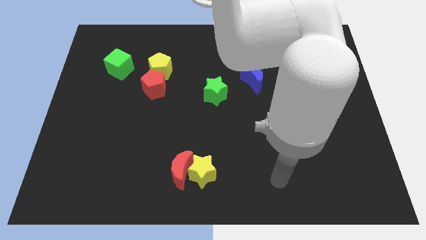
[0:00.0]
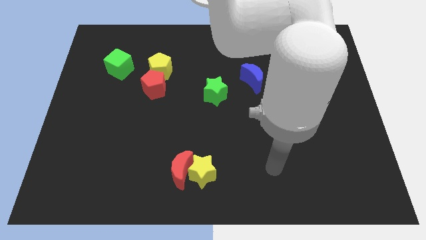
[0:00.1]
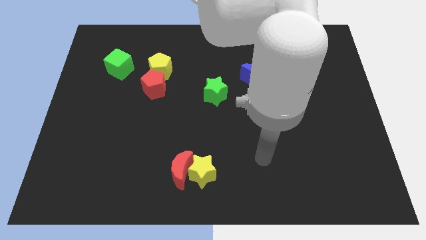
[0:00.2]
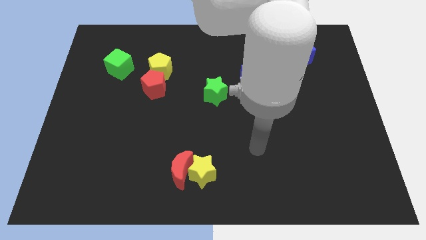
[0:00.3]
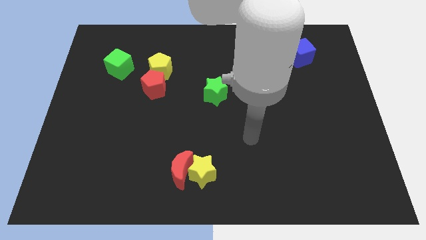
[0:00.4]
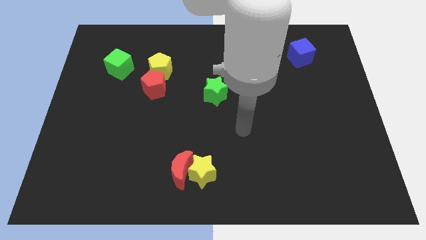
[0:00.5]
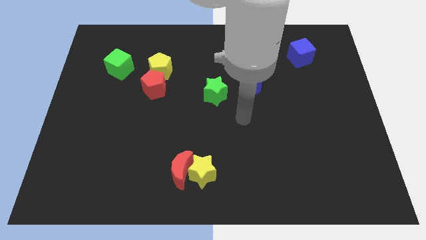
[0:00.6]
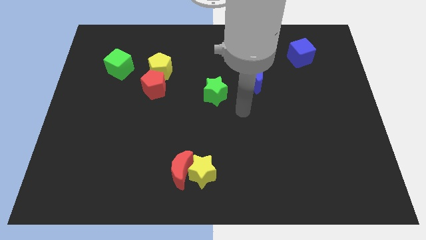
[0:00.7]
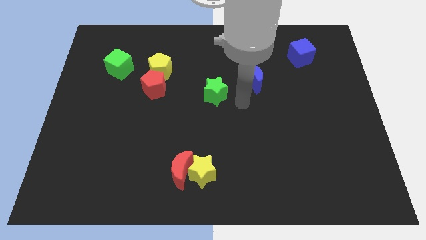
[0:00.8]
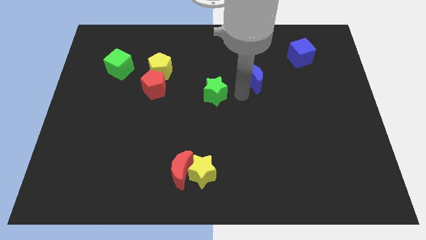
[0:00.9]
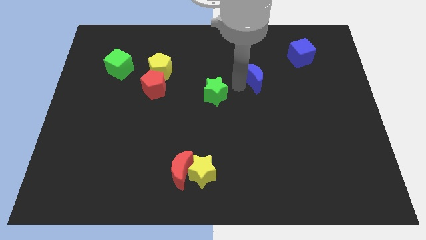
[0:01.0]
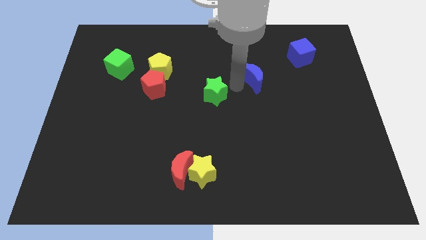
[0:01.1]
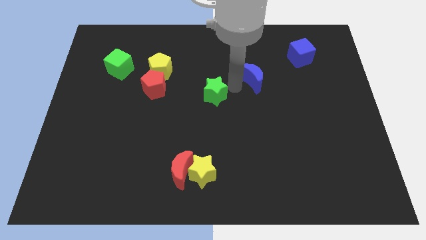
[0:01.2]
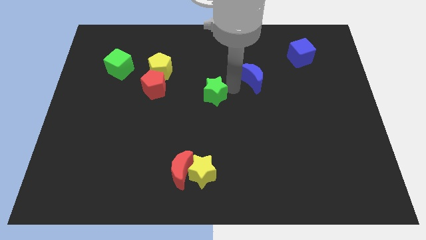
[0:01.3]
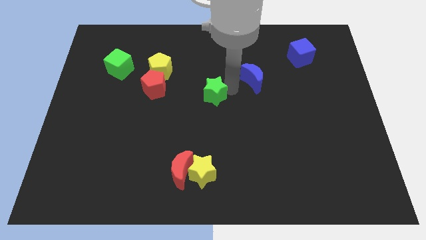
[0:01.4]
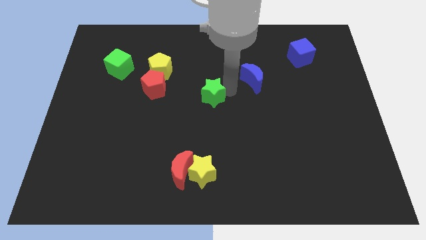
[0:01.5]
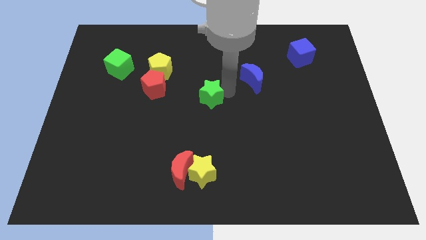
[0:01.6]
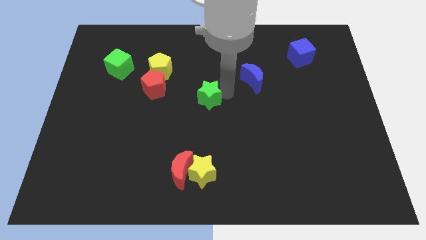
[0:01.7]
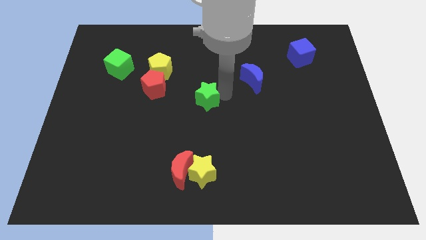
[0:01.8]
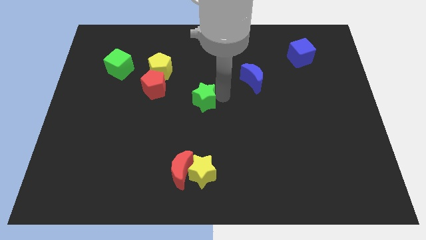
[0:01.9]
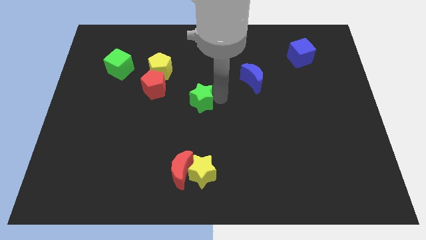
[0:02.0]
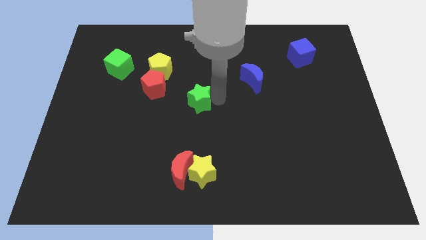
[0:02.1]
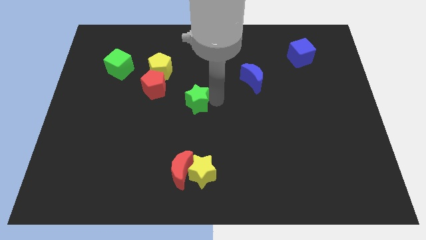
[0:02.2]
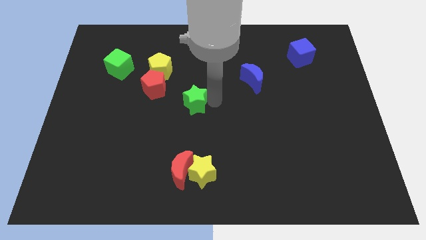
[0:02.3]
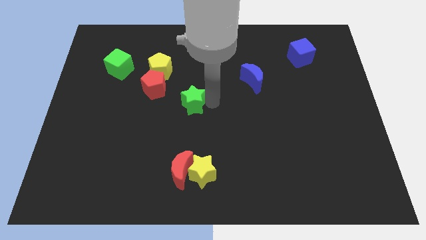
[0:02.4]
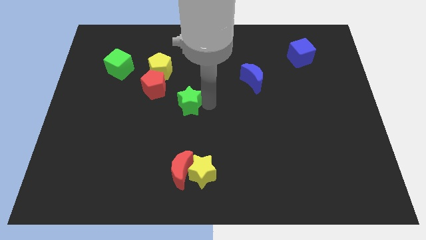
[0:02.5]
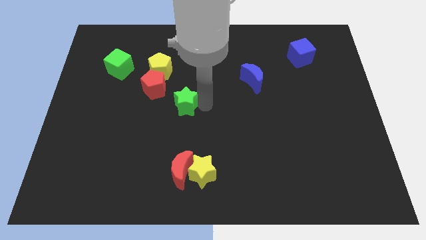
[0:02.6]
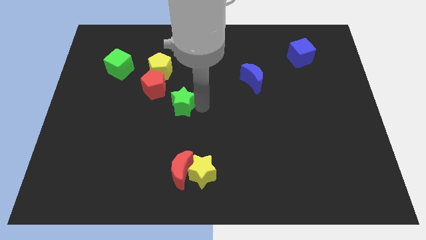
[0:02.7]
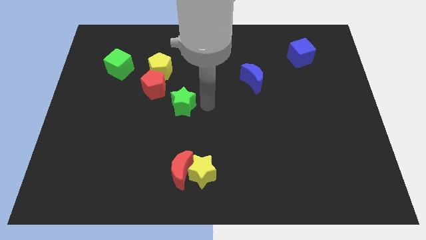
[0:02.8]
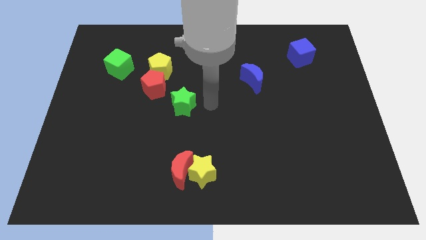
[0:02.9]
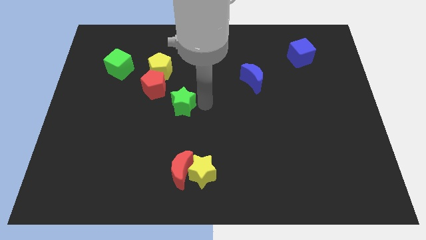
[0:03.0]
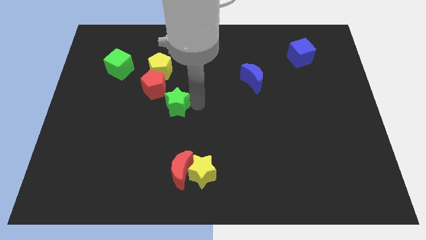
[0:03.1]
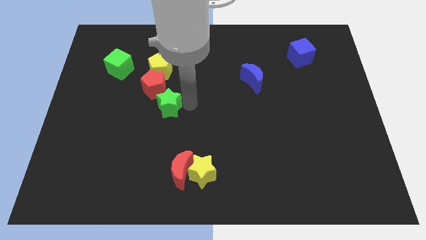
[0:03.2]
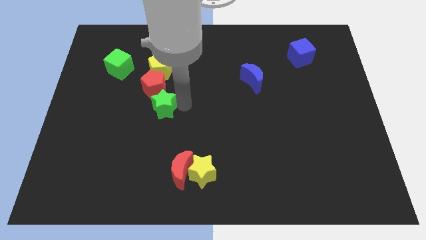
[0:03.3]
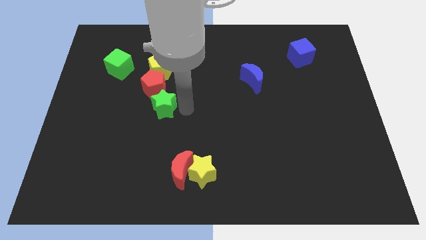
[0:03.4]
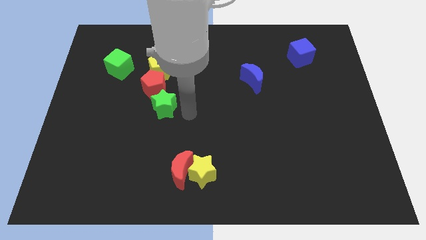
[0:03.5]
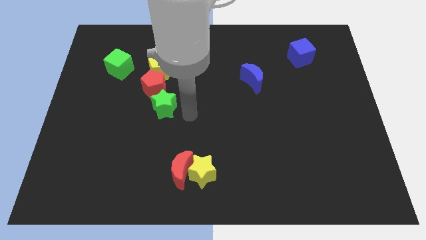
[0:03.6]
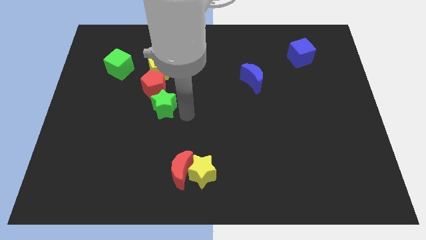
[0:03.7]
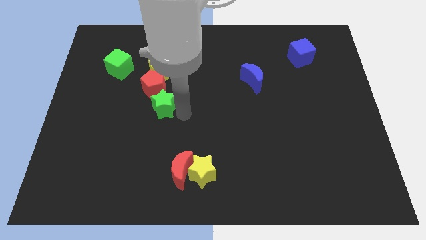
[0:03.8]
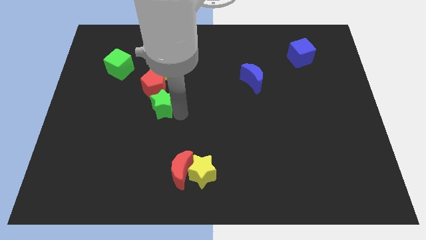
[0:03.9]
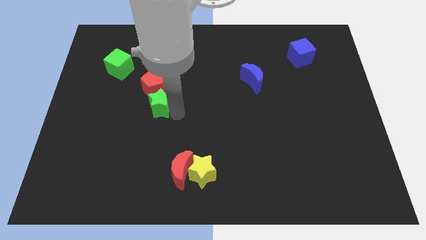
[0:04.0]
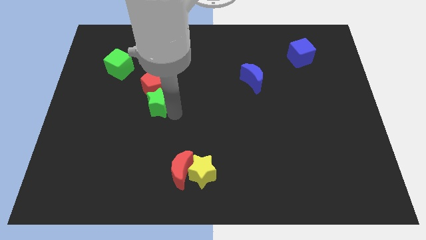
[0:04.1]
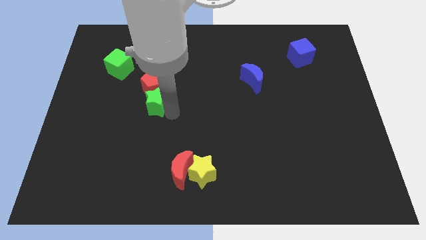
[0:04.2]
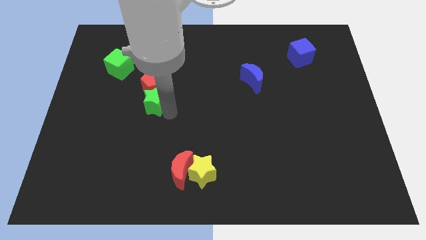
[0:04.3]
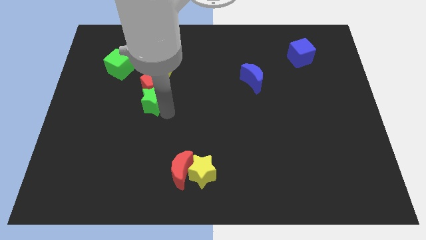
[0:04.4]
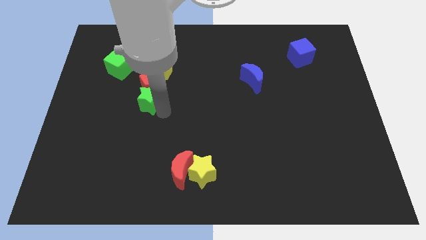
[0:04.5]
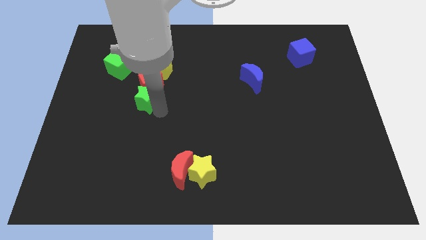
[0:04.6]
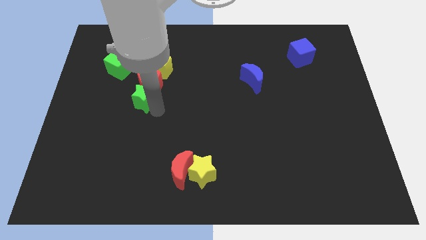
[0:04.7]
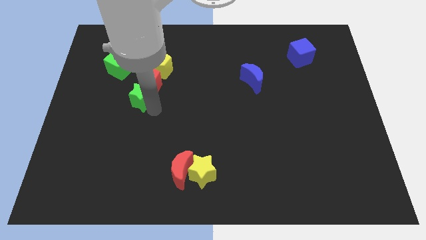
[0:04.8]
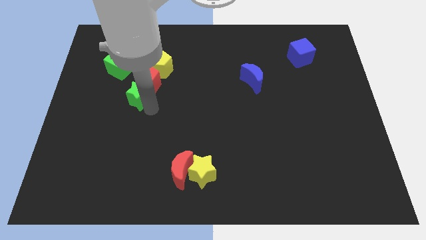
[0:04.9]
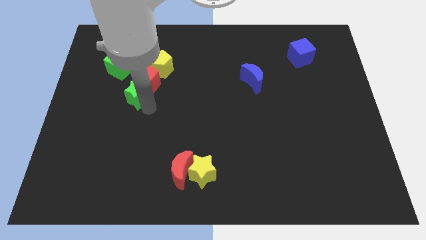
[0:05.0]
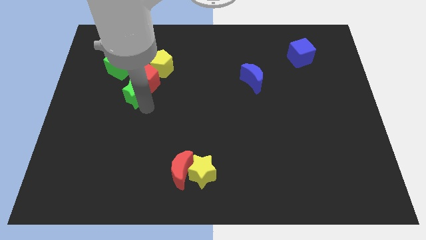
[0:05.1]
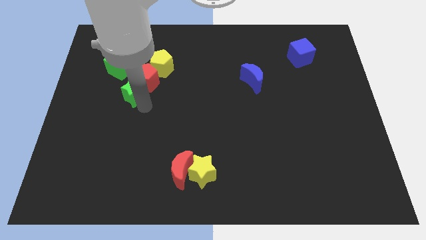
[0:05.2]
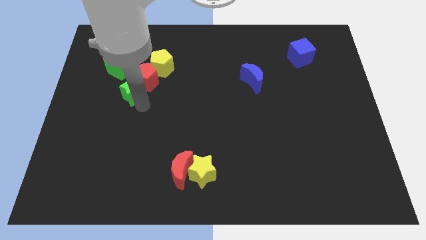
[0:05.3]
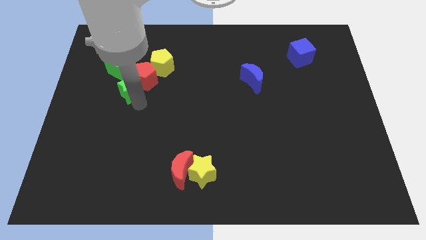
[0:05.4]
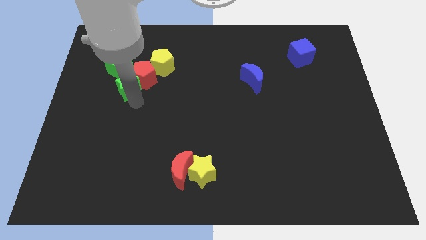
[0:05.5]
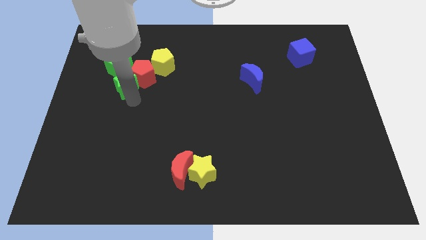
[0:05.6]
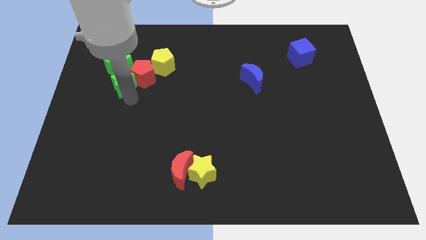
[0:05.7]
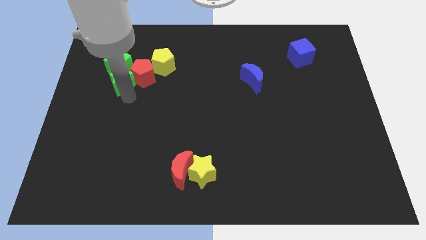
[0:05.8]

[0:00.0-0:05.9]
push the green star to the green cube

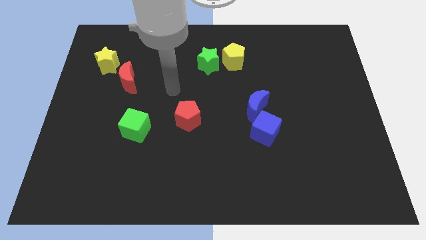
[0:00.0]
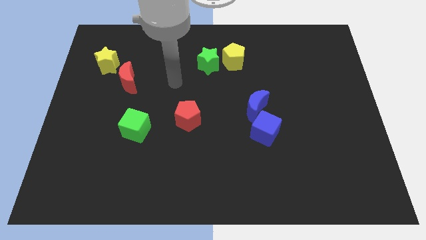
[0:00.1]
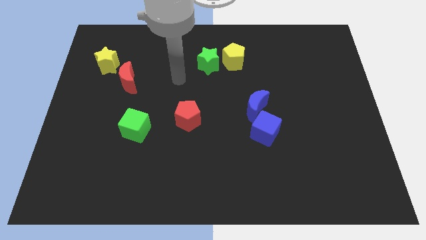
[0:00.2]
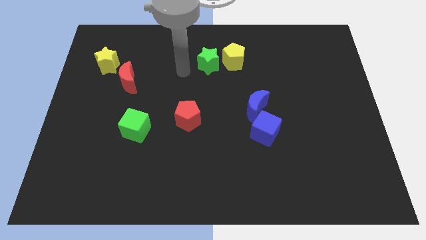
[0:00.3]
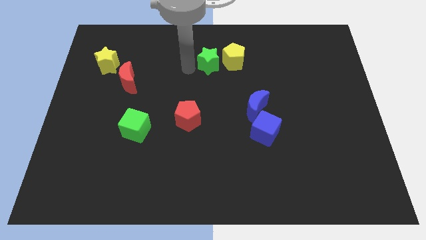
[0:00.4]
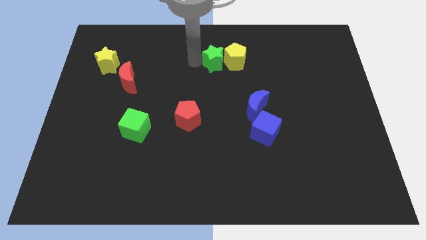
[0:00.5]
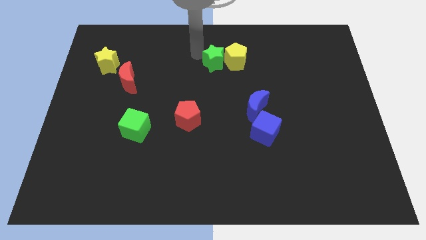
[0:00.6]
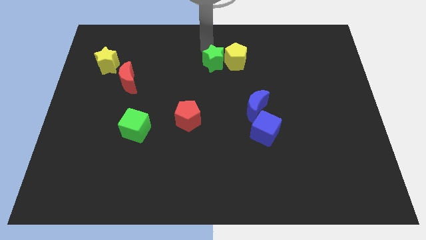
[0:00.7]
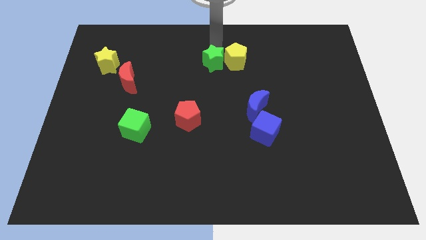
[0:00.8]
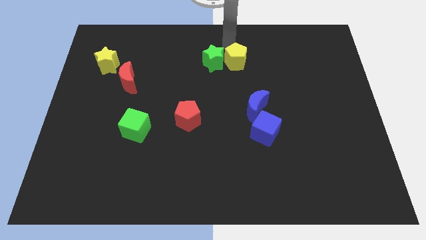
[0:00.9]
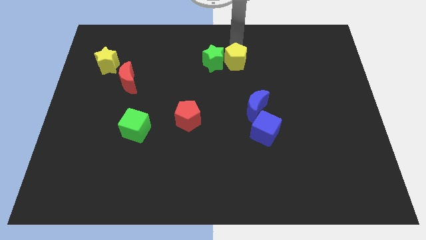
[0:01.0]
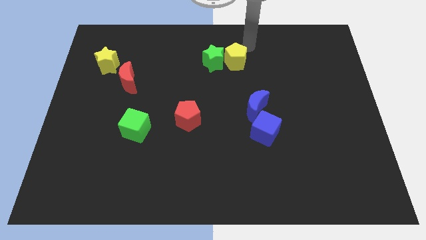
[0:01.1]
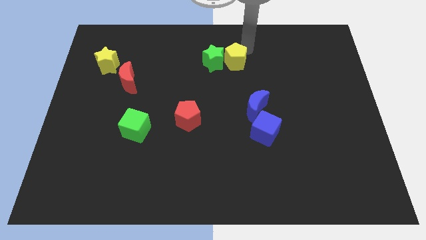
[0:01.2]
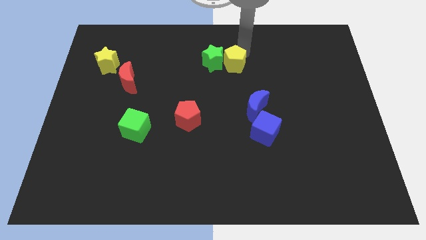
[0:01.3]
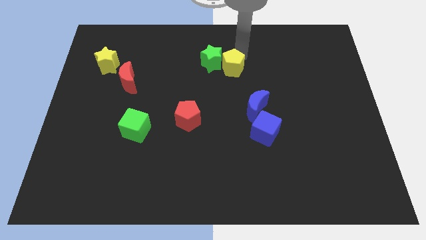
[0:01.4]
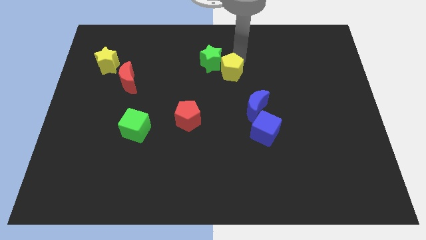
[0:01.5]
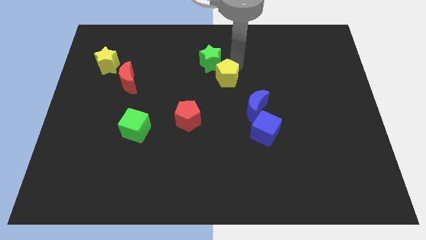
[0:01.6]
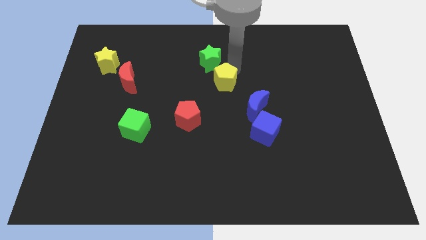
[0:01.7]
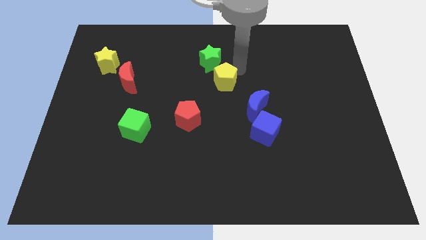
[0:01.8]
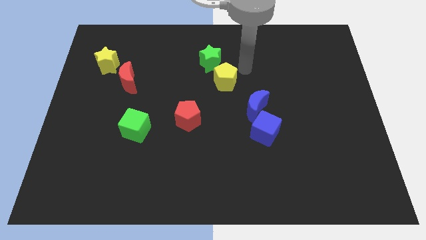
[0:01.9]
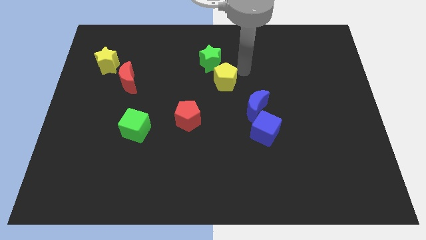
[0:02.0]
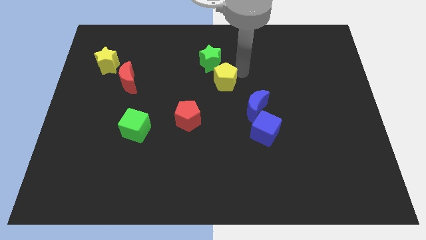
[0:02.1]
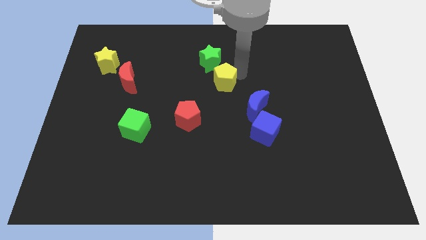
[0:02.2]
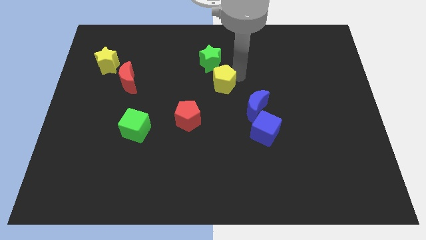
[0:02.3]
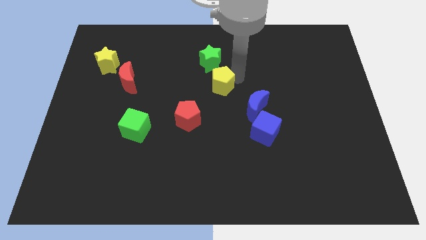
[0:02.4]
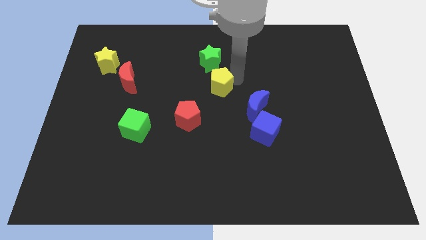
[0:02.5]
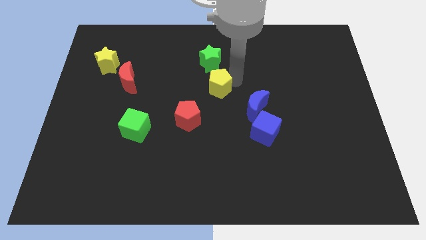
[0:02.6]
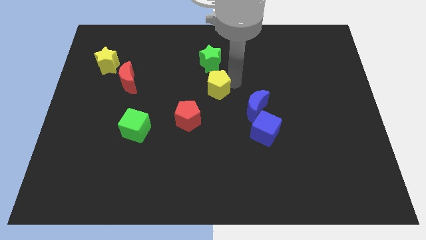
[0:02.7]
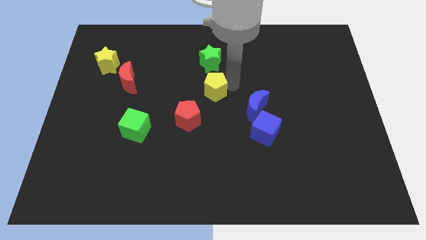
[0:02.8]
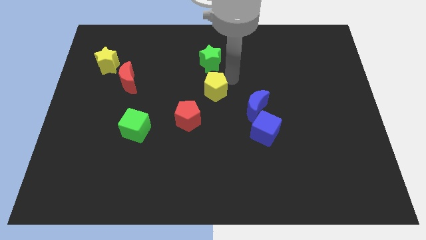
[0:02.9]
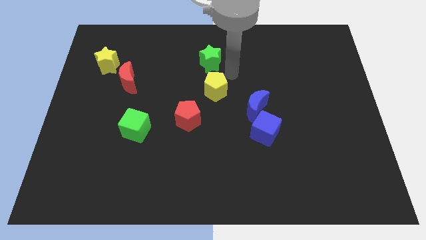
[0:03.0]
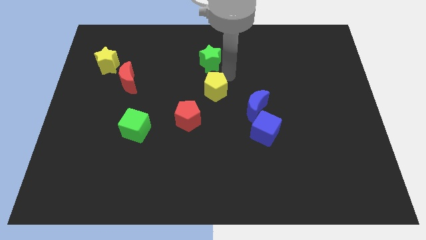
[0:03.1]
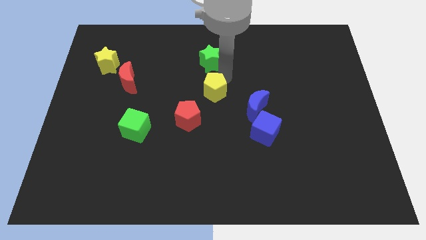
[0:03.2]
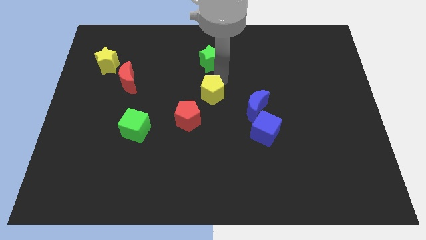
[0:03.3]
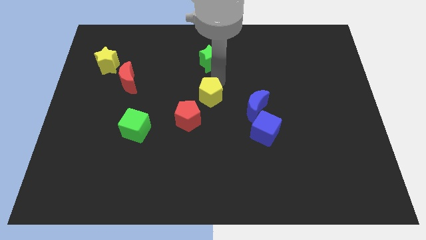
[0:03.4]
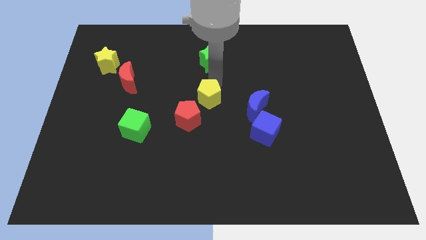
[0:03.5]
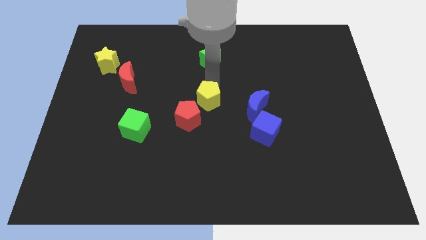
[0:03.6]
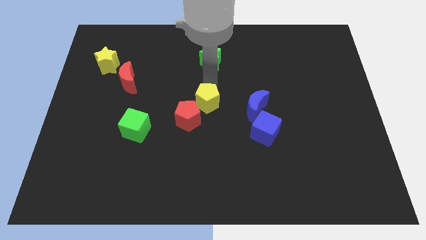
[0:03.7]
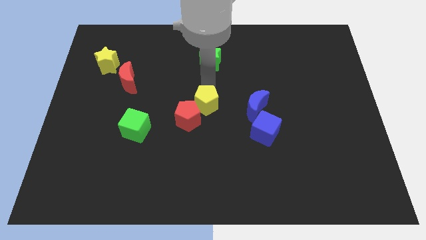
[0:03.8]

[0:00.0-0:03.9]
move the yellow pentagon towards the red pentagon
